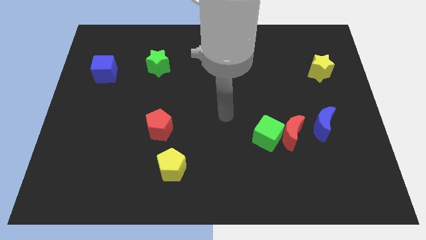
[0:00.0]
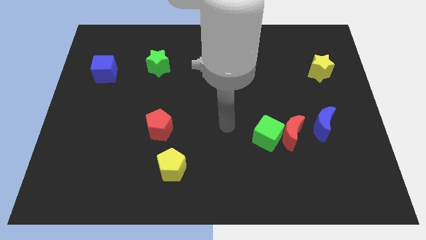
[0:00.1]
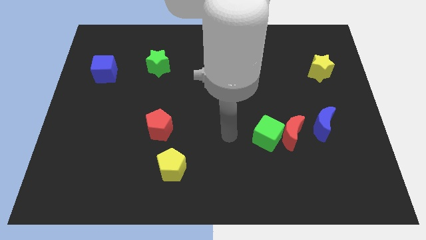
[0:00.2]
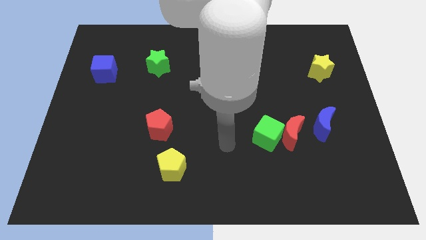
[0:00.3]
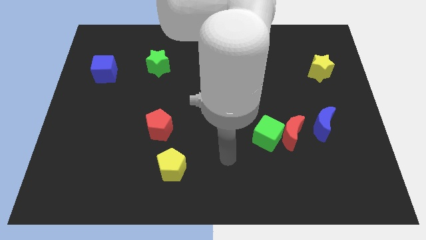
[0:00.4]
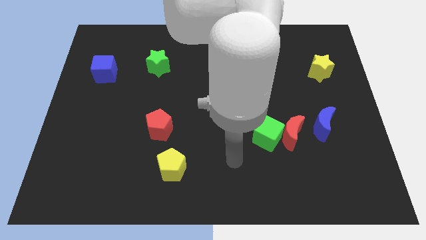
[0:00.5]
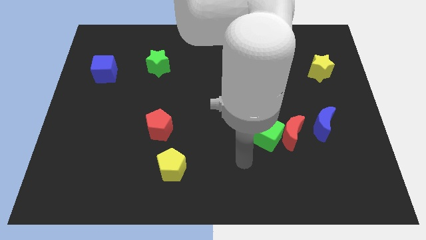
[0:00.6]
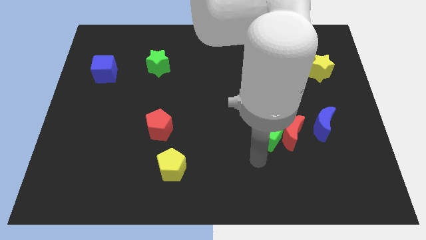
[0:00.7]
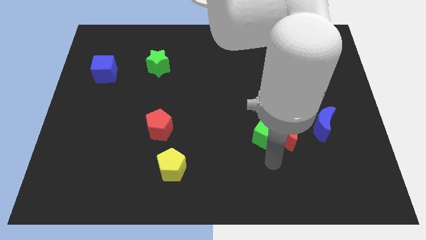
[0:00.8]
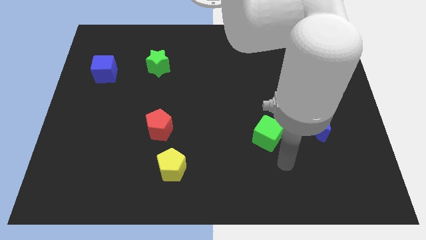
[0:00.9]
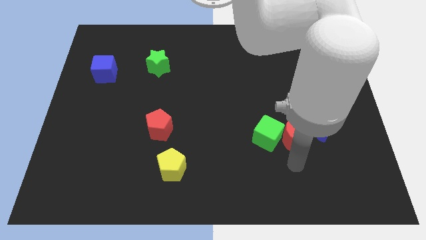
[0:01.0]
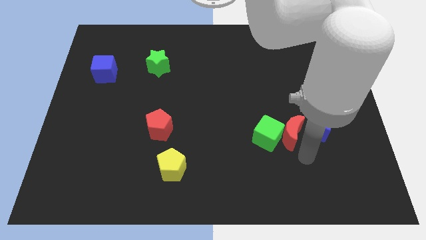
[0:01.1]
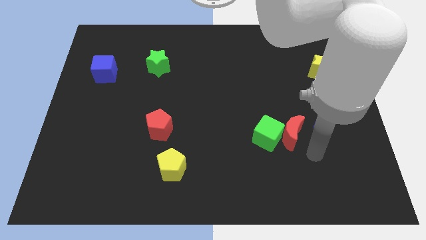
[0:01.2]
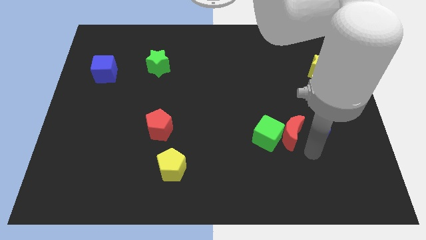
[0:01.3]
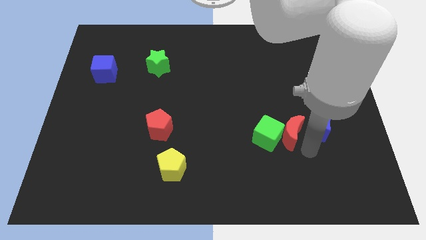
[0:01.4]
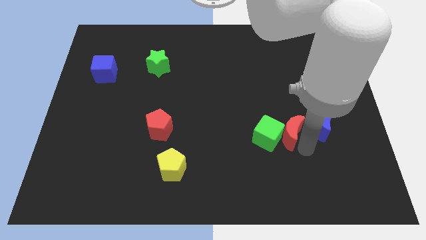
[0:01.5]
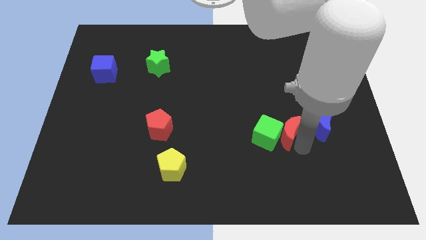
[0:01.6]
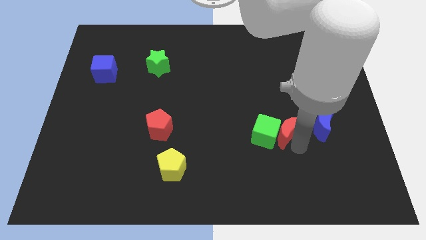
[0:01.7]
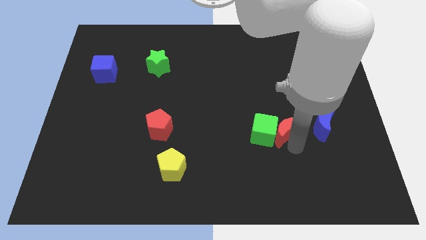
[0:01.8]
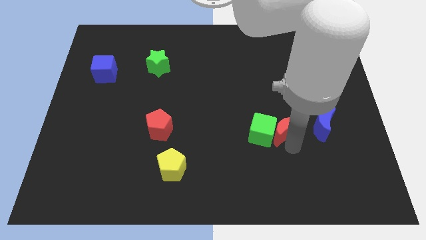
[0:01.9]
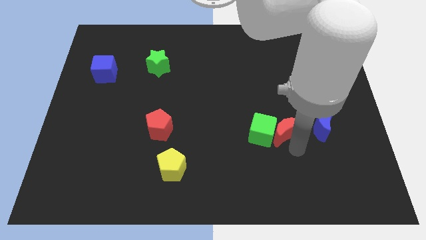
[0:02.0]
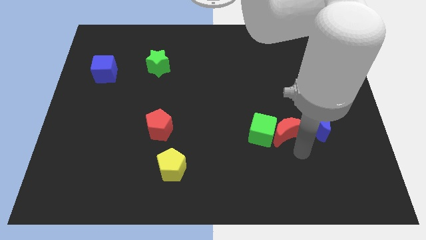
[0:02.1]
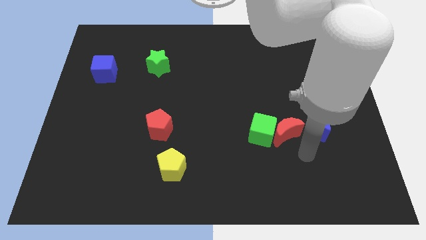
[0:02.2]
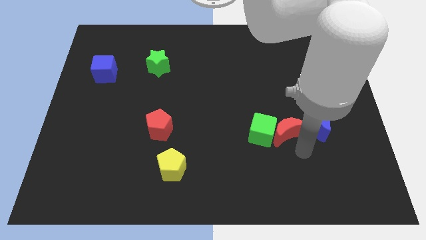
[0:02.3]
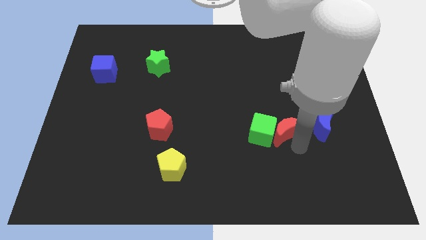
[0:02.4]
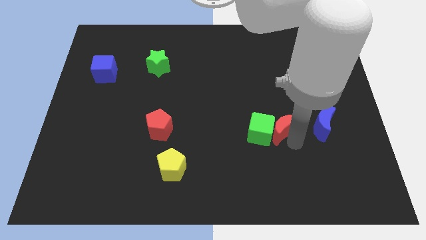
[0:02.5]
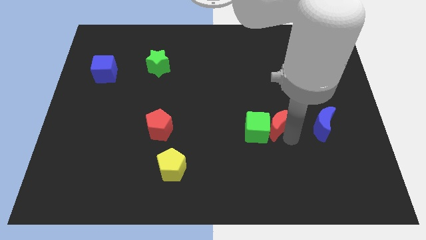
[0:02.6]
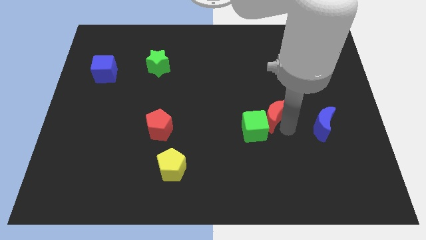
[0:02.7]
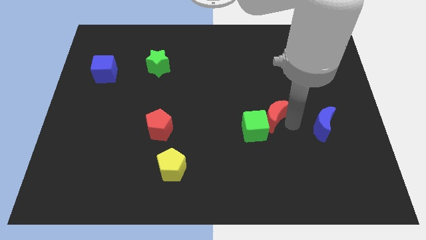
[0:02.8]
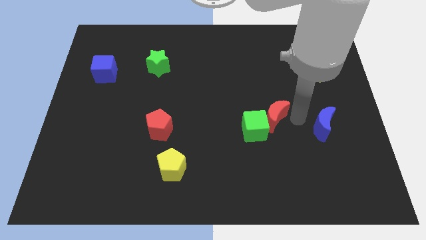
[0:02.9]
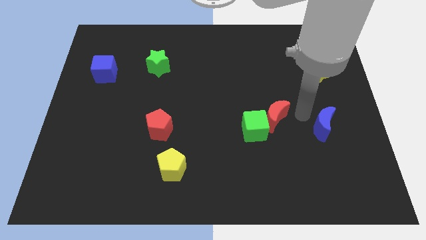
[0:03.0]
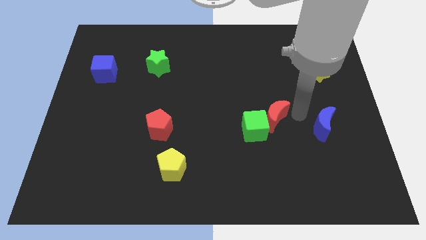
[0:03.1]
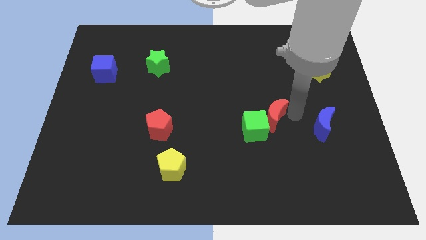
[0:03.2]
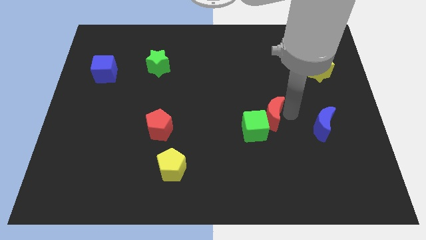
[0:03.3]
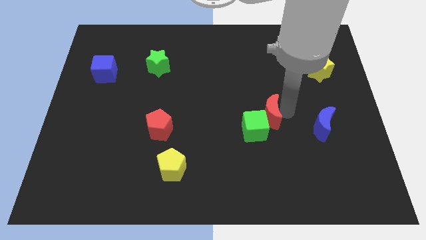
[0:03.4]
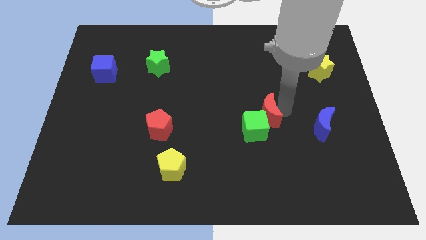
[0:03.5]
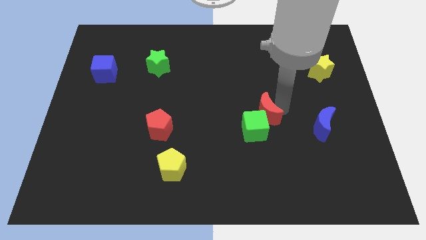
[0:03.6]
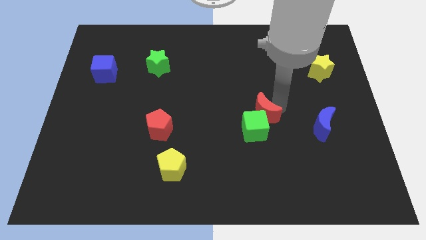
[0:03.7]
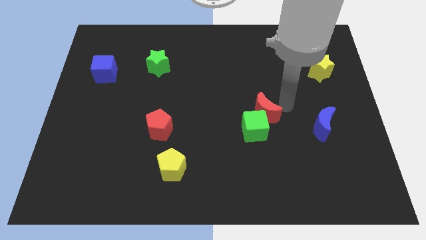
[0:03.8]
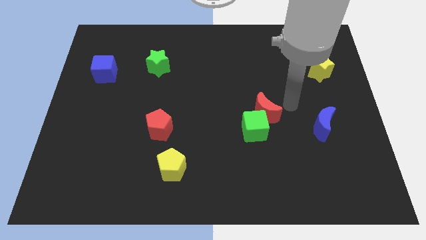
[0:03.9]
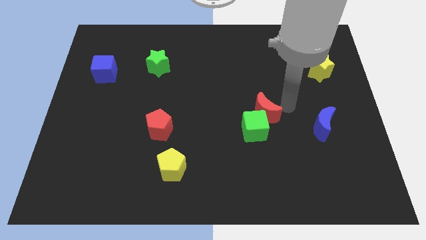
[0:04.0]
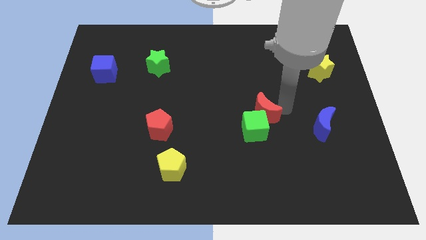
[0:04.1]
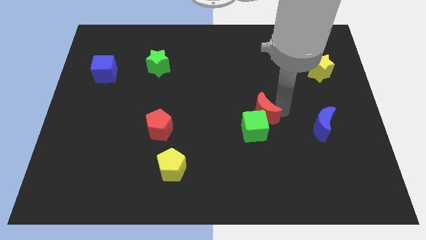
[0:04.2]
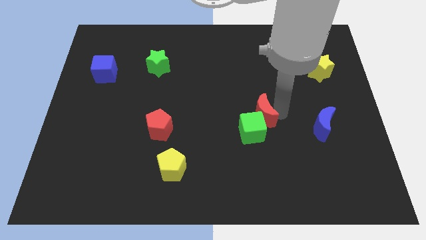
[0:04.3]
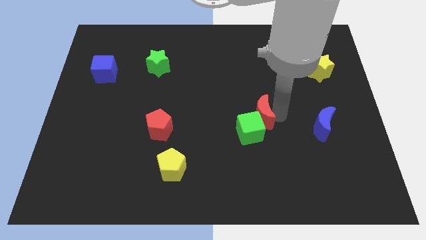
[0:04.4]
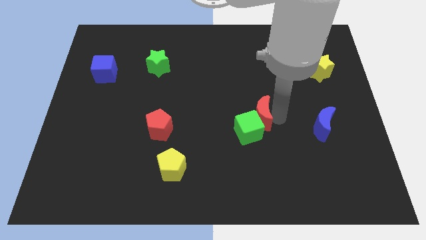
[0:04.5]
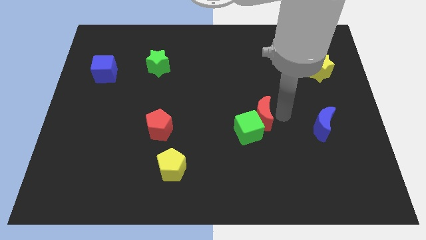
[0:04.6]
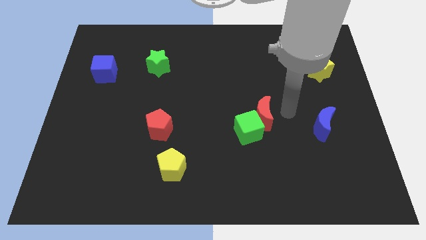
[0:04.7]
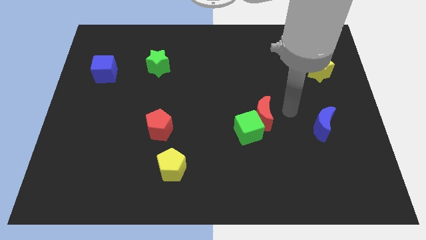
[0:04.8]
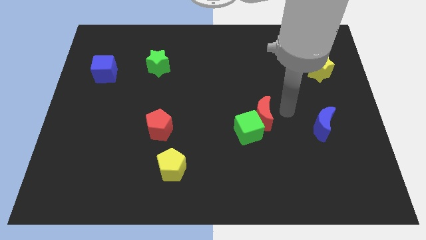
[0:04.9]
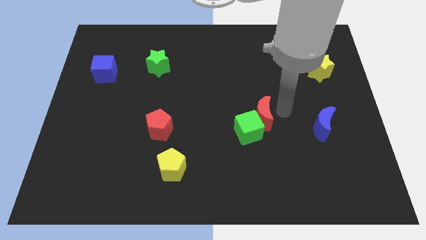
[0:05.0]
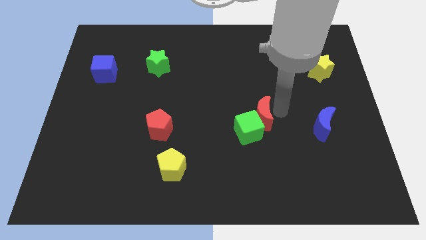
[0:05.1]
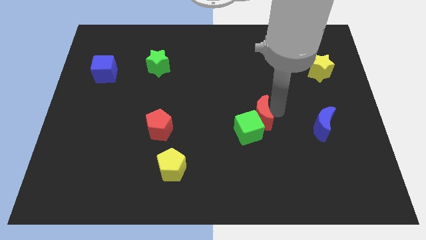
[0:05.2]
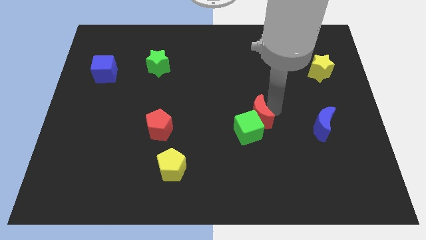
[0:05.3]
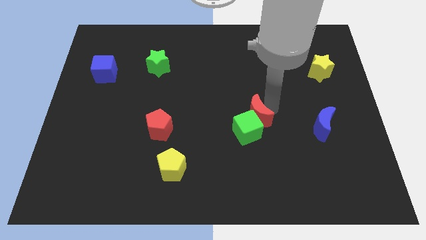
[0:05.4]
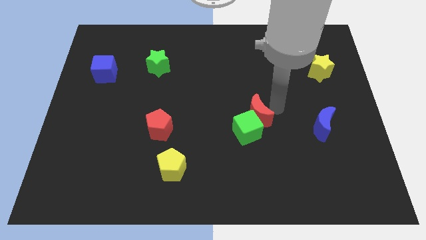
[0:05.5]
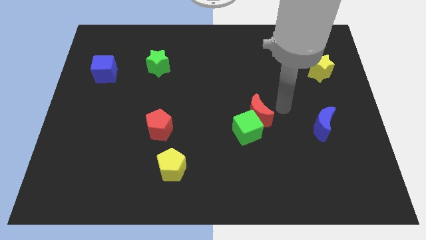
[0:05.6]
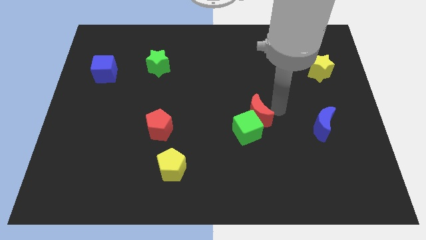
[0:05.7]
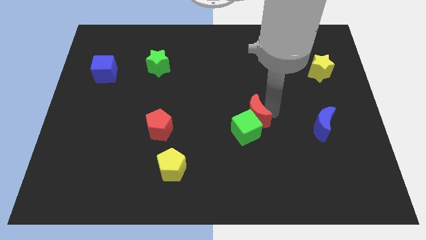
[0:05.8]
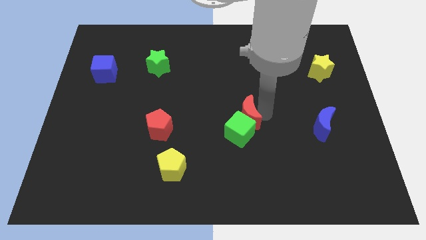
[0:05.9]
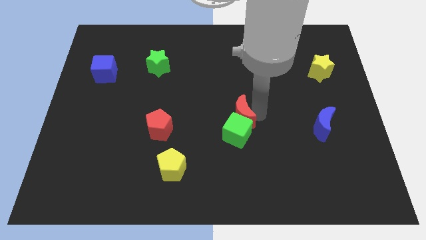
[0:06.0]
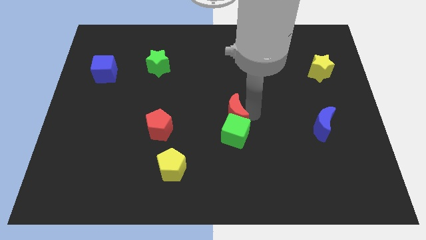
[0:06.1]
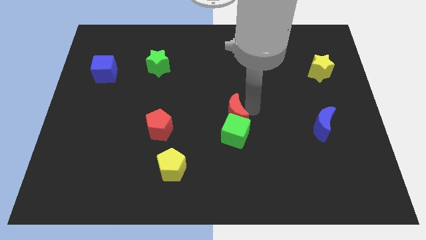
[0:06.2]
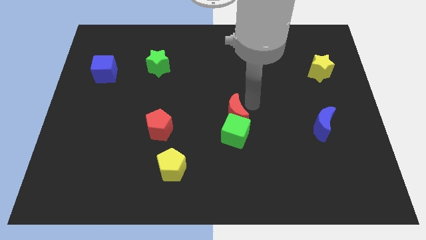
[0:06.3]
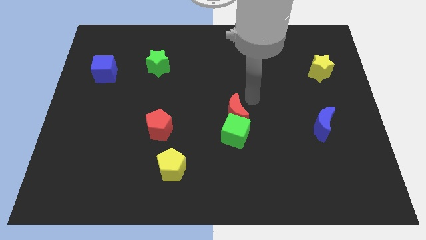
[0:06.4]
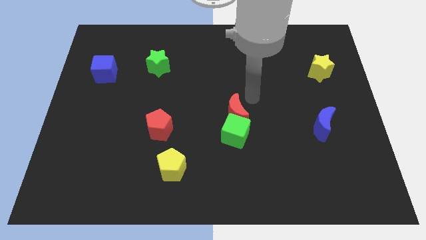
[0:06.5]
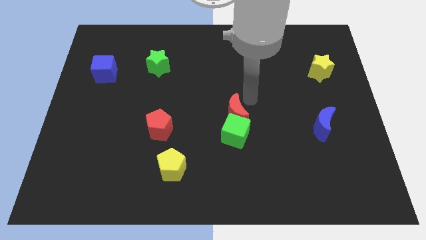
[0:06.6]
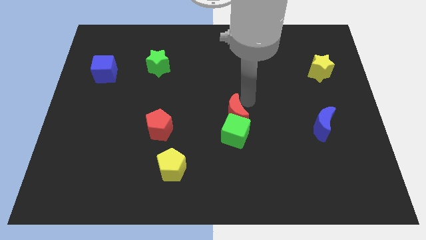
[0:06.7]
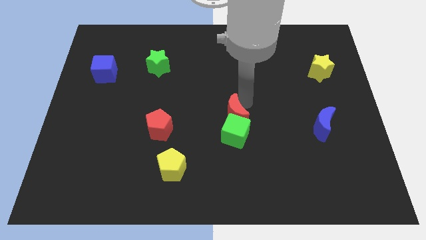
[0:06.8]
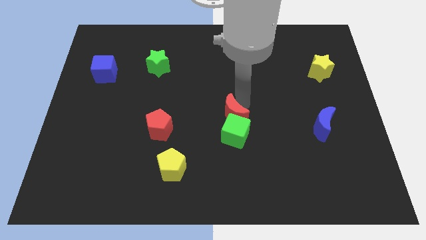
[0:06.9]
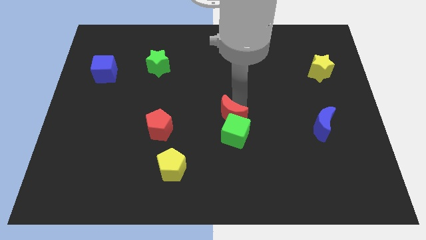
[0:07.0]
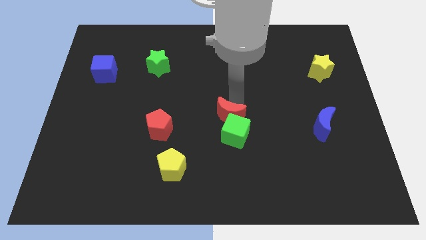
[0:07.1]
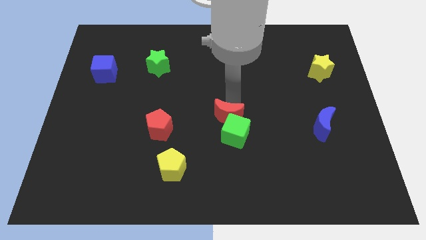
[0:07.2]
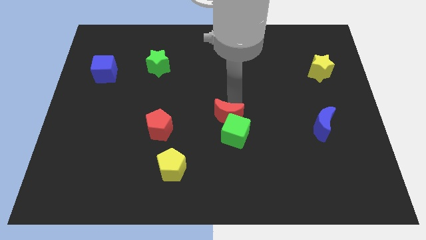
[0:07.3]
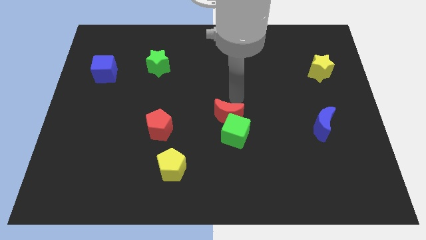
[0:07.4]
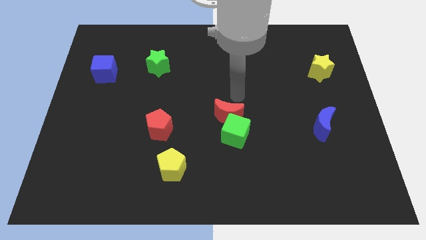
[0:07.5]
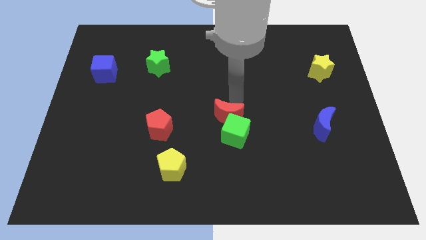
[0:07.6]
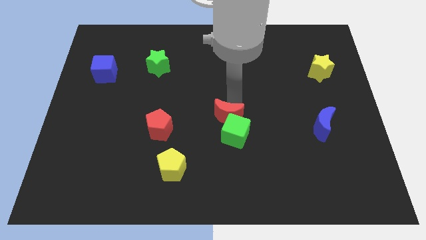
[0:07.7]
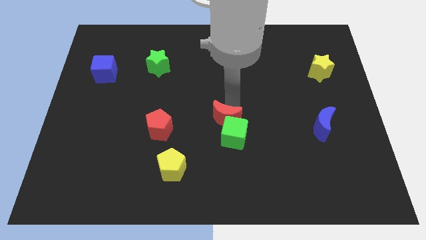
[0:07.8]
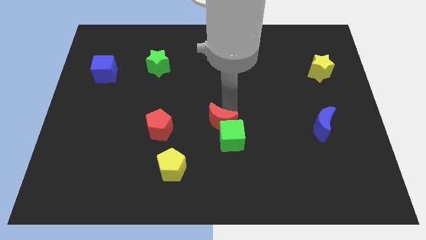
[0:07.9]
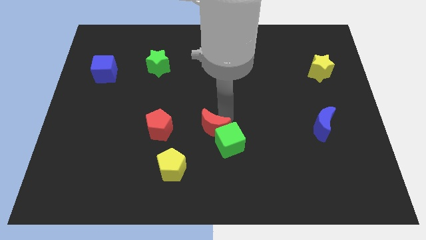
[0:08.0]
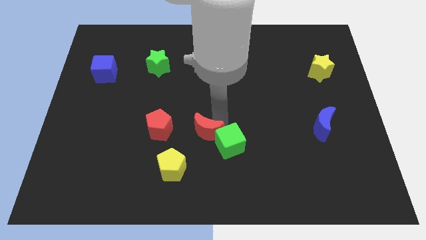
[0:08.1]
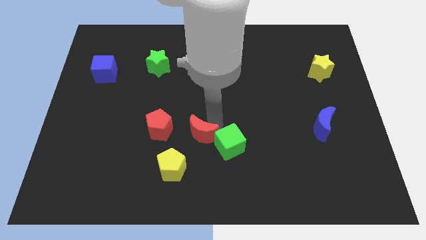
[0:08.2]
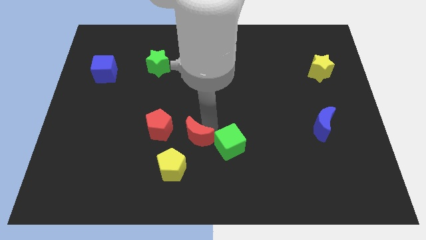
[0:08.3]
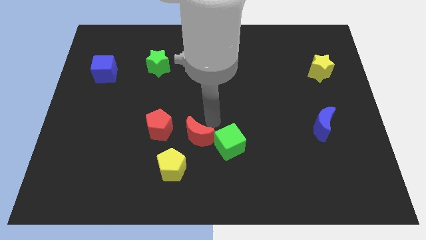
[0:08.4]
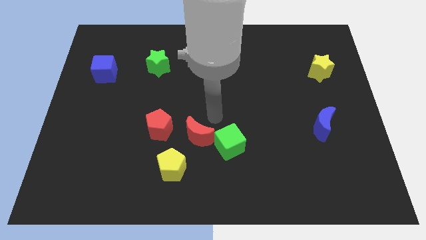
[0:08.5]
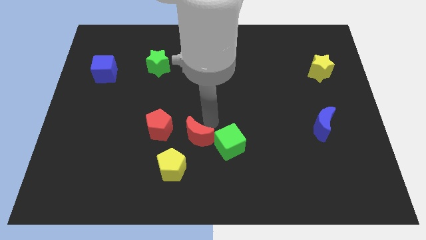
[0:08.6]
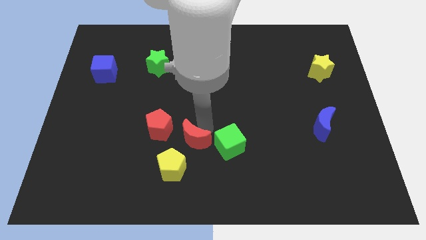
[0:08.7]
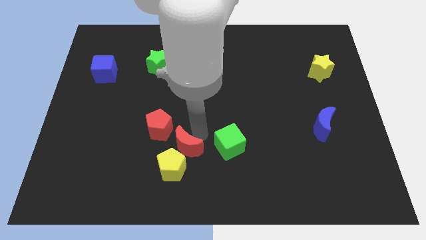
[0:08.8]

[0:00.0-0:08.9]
slide the red moon to the yellow pentagon
